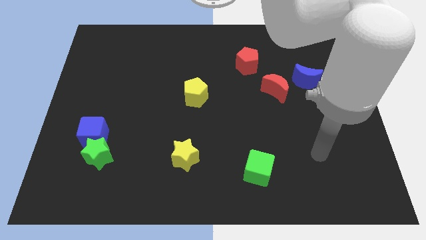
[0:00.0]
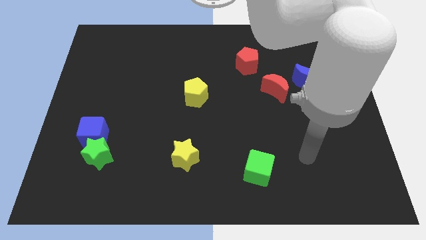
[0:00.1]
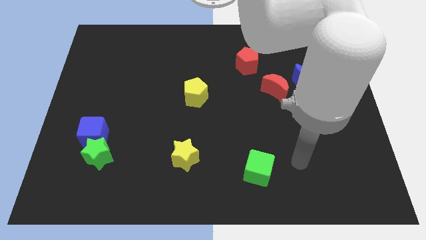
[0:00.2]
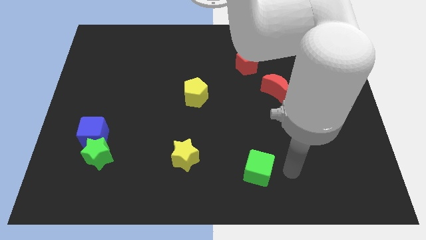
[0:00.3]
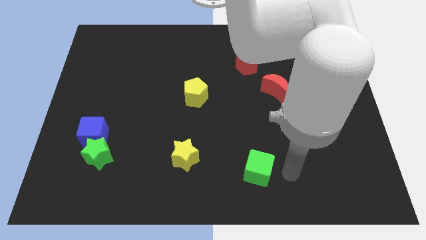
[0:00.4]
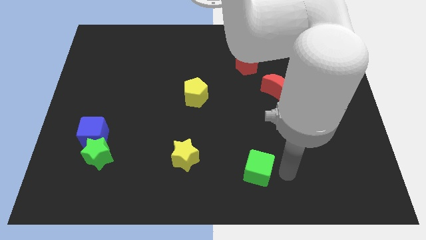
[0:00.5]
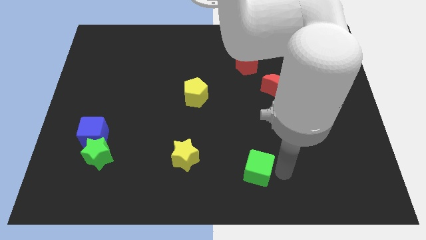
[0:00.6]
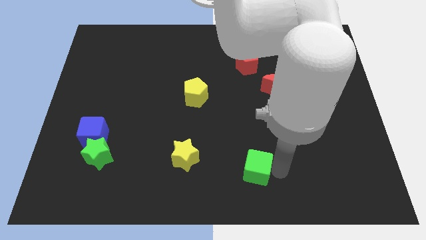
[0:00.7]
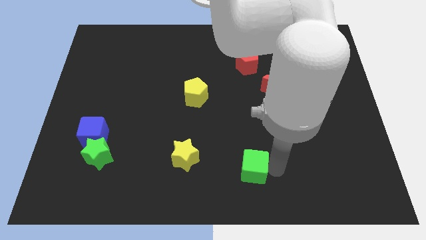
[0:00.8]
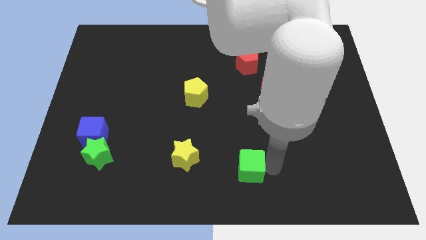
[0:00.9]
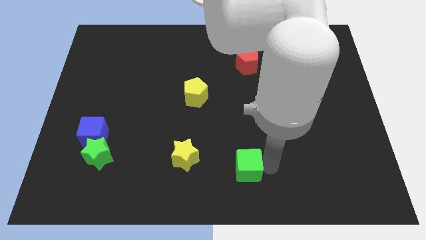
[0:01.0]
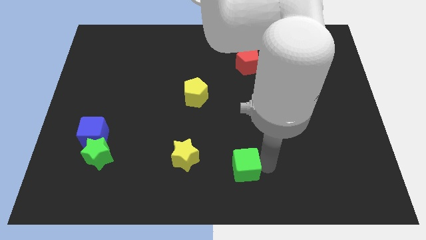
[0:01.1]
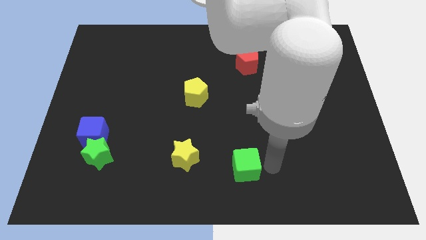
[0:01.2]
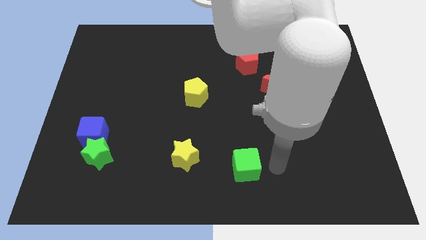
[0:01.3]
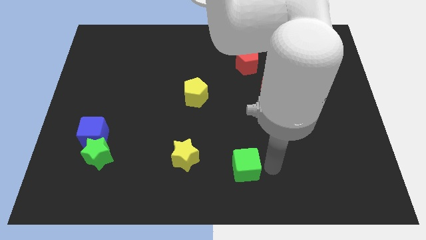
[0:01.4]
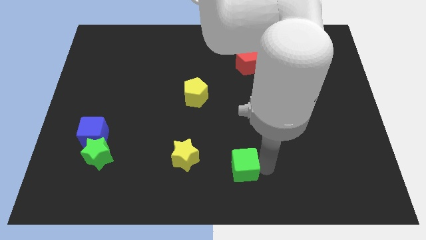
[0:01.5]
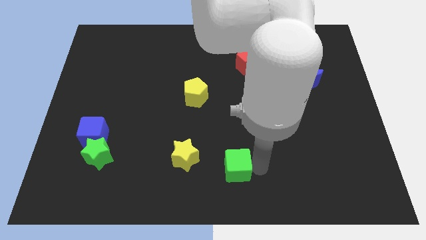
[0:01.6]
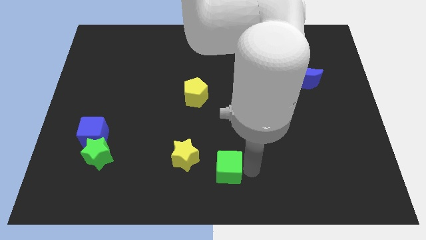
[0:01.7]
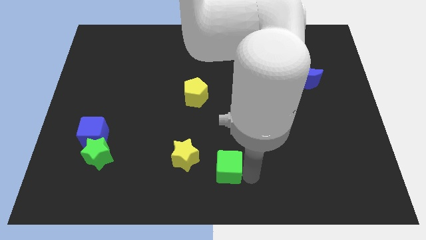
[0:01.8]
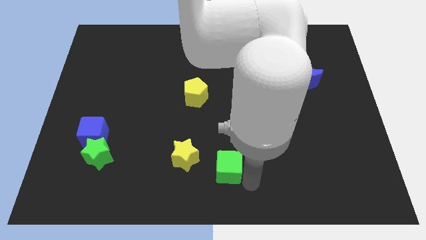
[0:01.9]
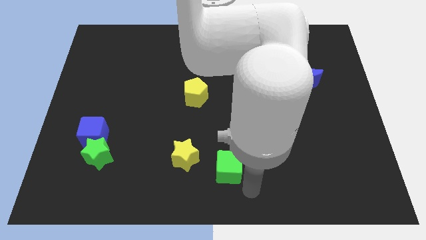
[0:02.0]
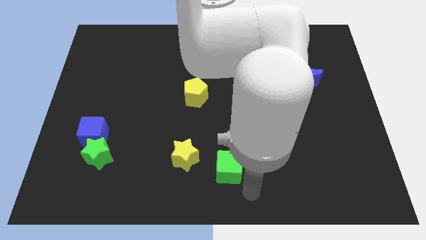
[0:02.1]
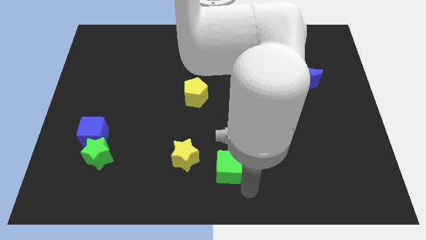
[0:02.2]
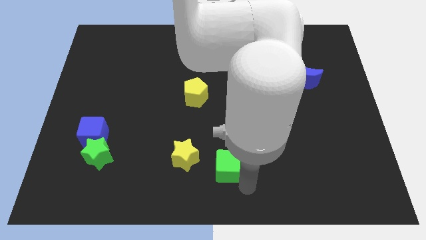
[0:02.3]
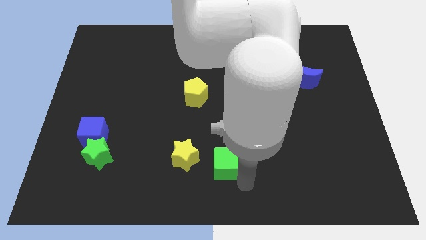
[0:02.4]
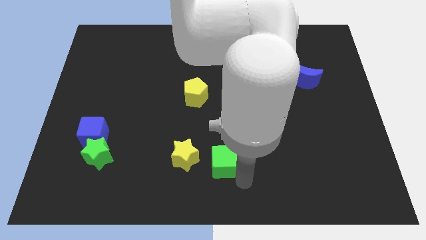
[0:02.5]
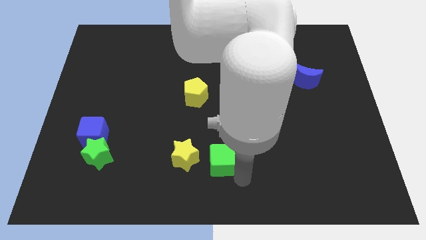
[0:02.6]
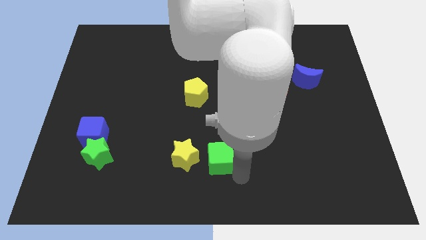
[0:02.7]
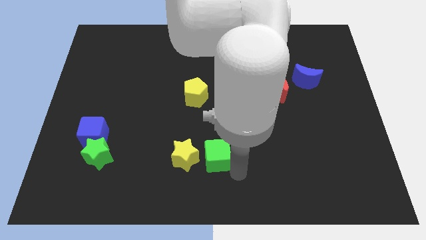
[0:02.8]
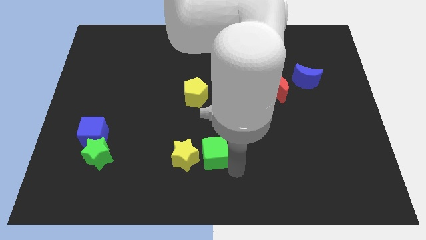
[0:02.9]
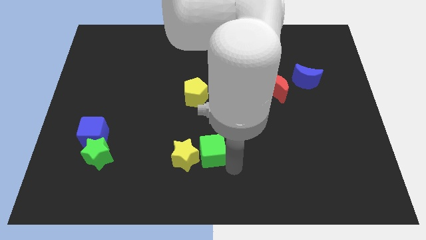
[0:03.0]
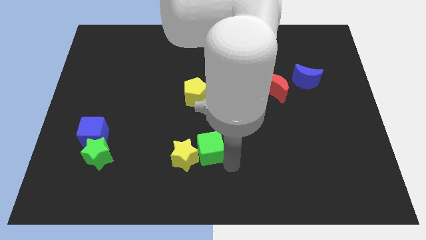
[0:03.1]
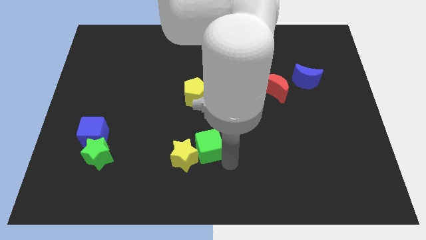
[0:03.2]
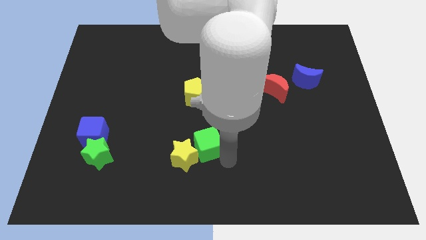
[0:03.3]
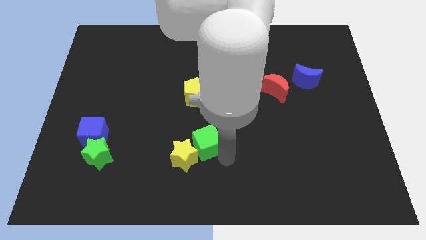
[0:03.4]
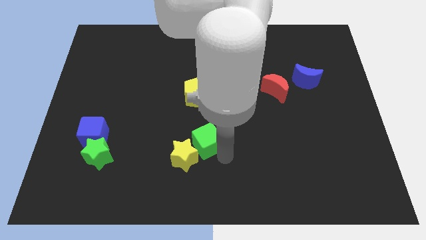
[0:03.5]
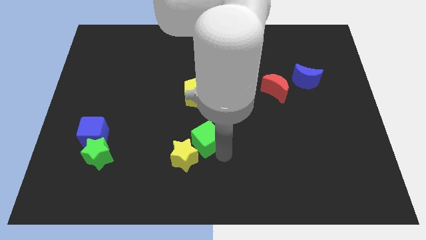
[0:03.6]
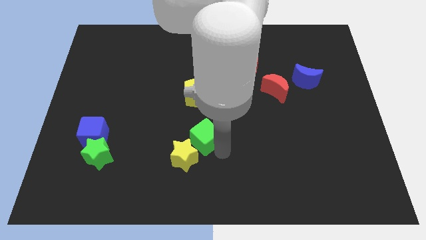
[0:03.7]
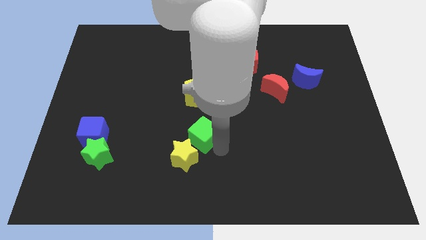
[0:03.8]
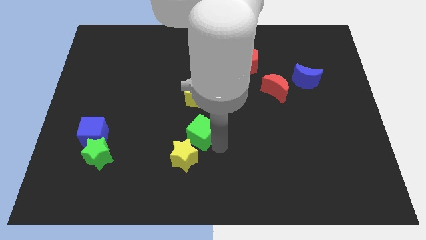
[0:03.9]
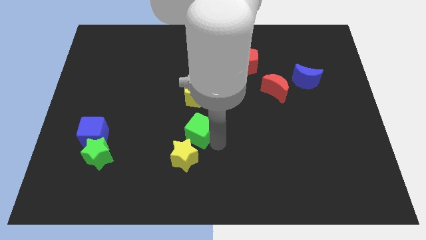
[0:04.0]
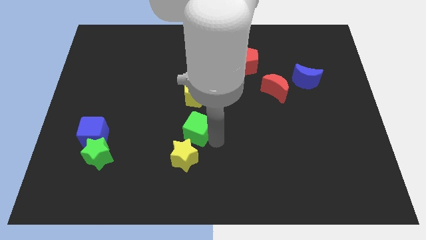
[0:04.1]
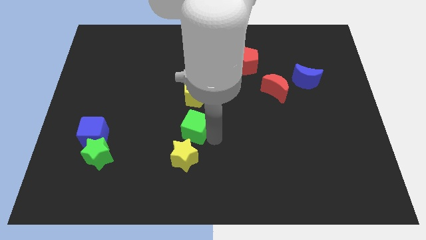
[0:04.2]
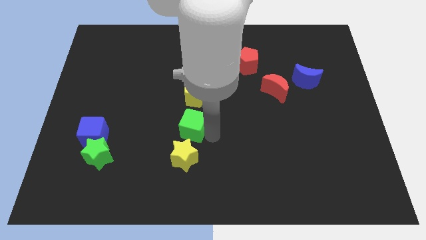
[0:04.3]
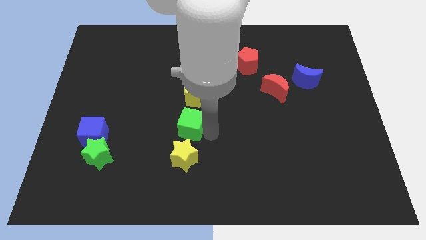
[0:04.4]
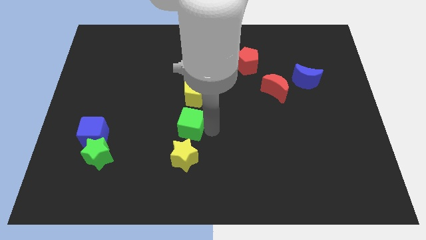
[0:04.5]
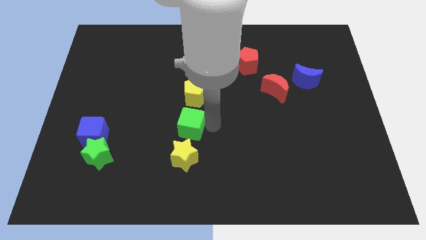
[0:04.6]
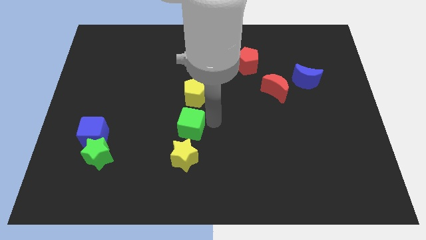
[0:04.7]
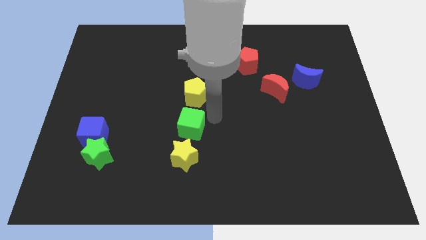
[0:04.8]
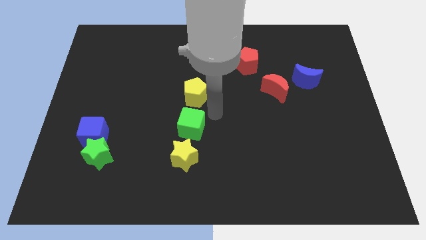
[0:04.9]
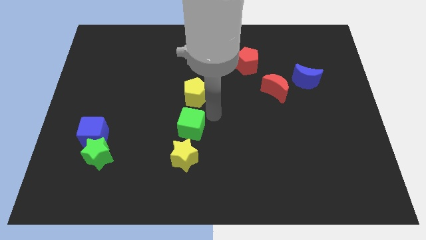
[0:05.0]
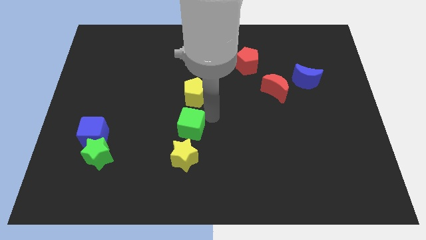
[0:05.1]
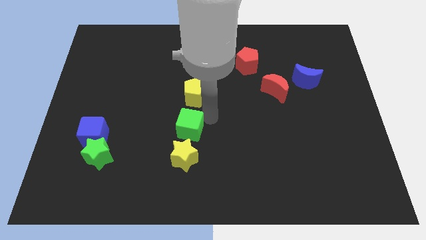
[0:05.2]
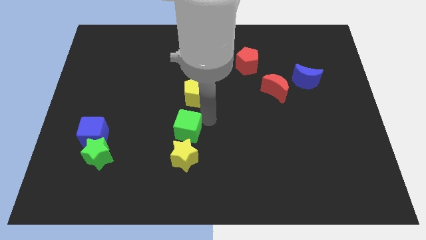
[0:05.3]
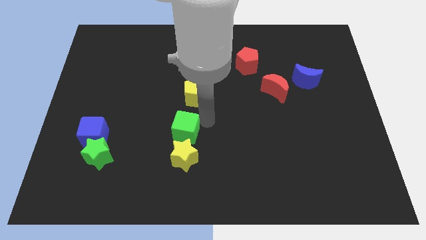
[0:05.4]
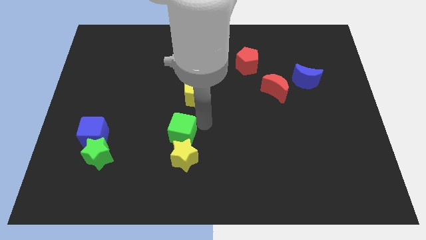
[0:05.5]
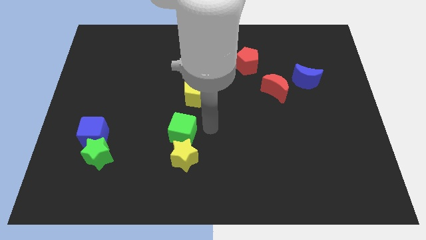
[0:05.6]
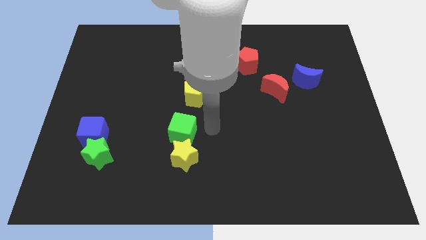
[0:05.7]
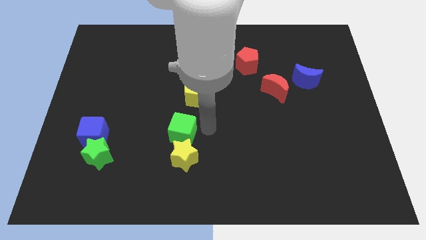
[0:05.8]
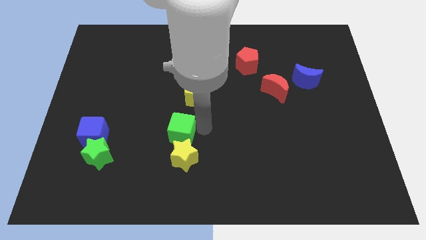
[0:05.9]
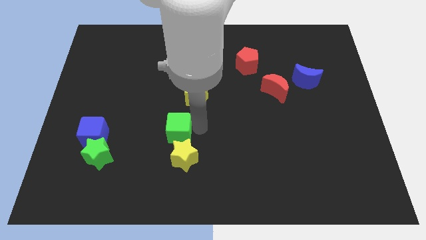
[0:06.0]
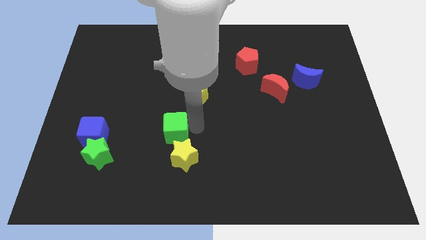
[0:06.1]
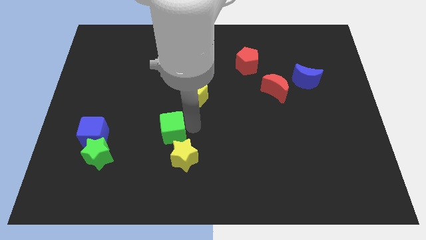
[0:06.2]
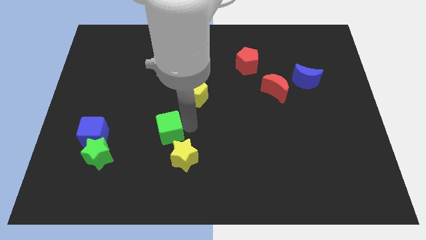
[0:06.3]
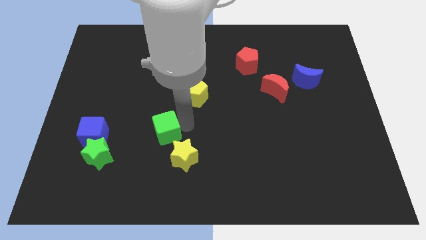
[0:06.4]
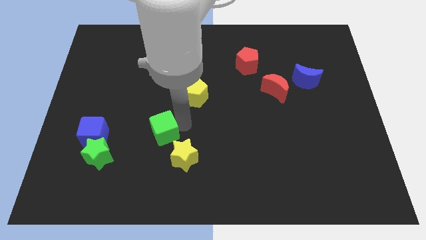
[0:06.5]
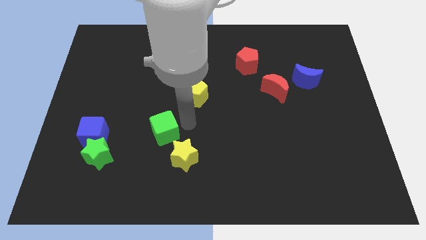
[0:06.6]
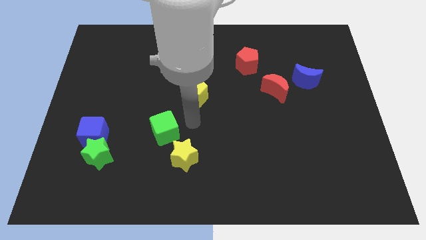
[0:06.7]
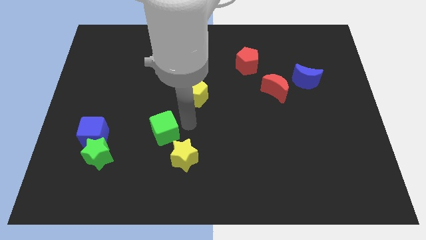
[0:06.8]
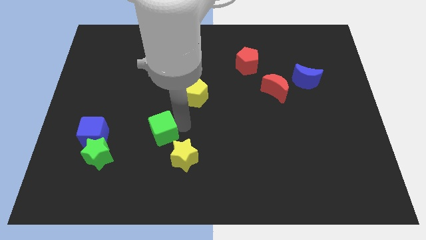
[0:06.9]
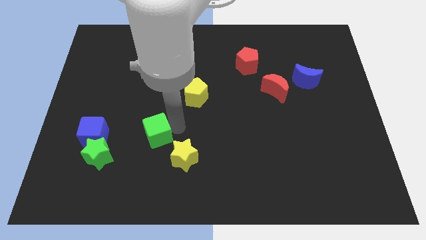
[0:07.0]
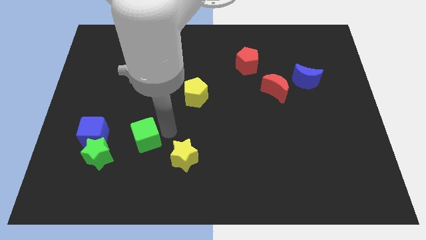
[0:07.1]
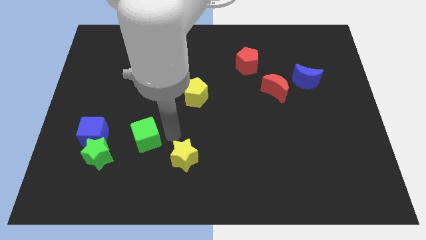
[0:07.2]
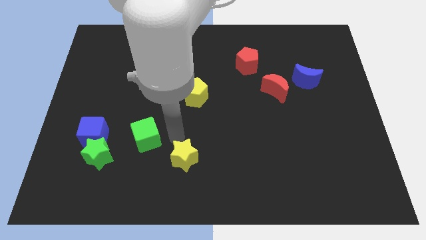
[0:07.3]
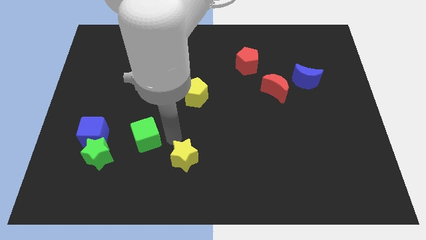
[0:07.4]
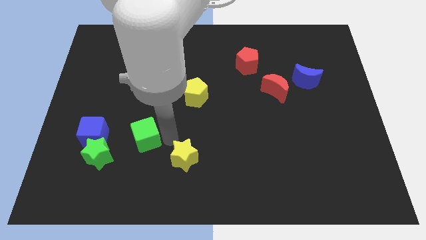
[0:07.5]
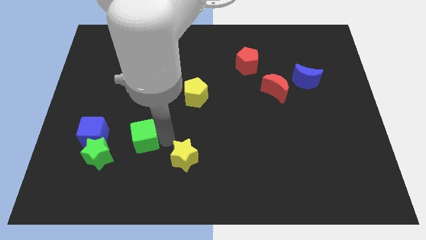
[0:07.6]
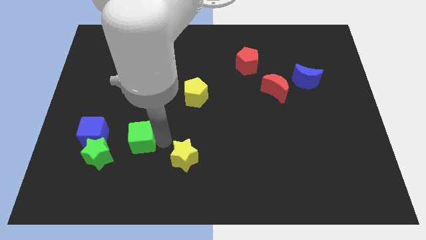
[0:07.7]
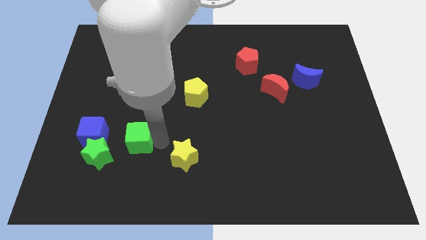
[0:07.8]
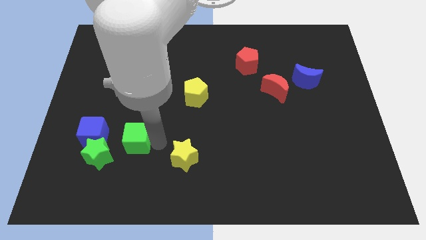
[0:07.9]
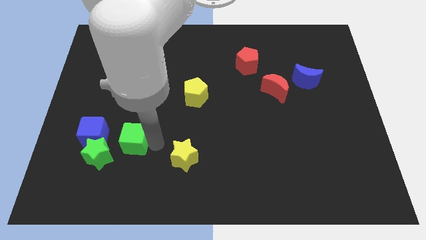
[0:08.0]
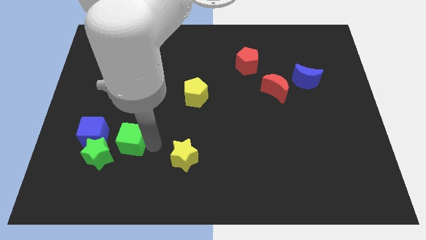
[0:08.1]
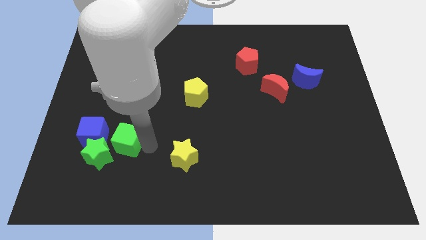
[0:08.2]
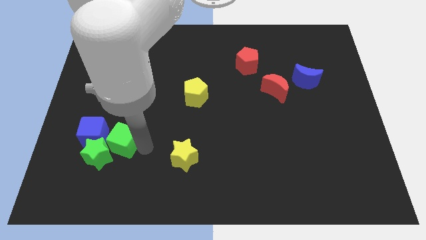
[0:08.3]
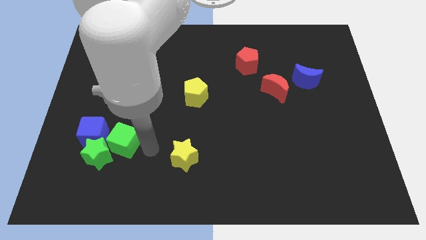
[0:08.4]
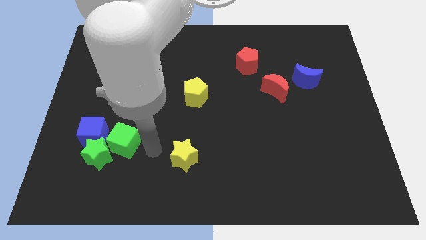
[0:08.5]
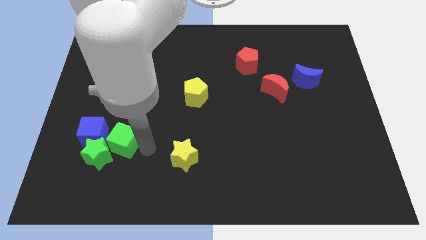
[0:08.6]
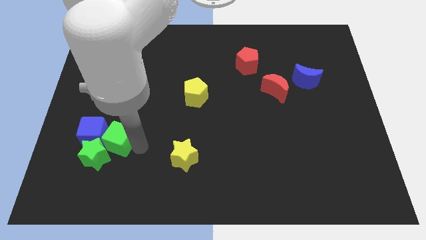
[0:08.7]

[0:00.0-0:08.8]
put the green cube next to the blue cube
